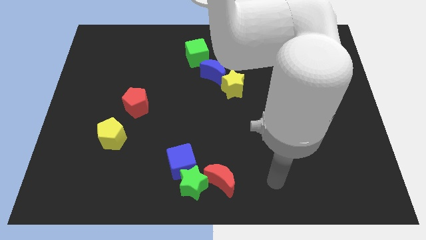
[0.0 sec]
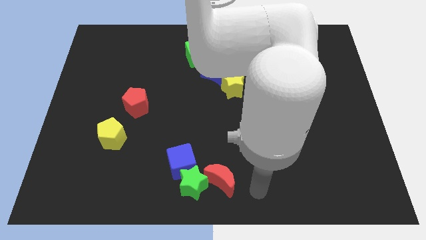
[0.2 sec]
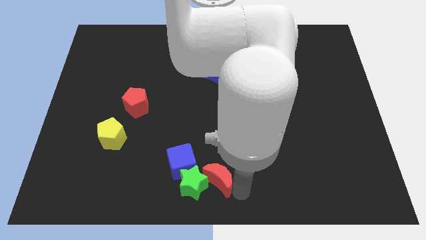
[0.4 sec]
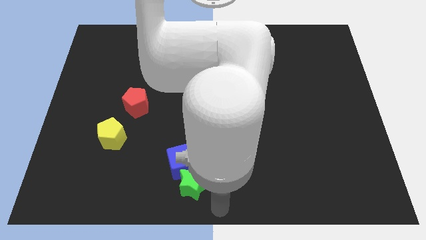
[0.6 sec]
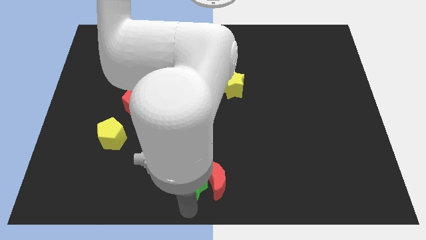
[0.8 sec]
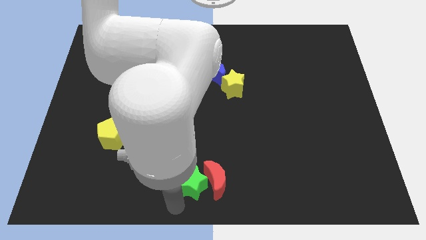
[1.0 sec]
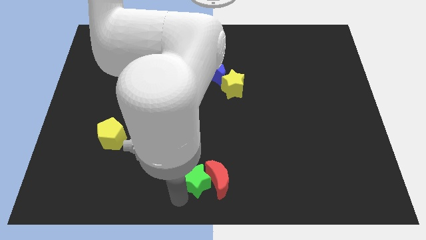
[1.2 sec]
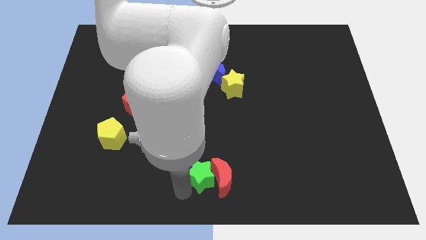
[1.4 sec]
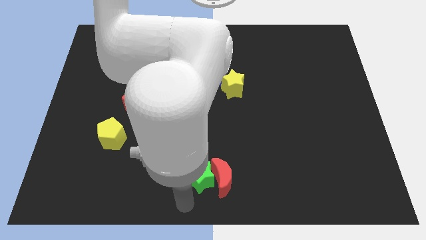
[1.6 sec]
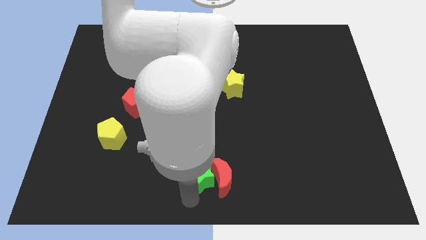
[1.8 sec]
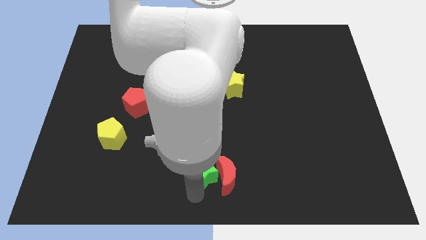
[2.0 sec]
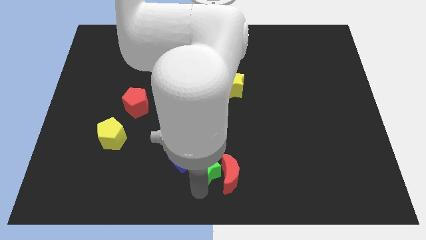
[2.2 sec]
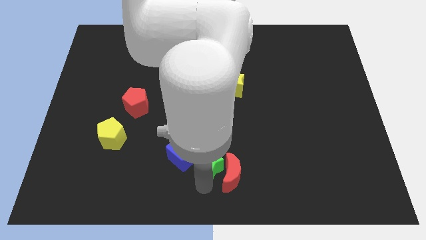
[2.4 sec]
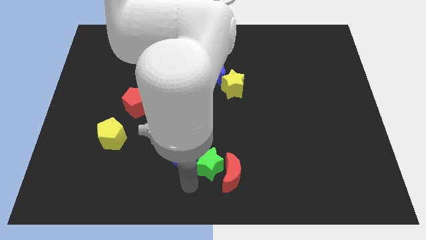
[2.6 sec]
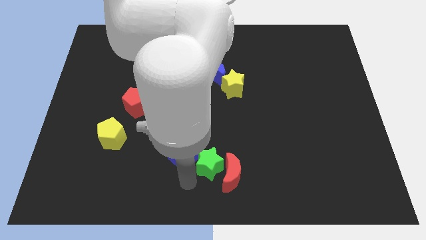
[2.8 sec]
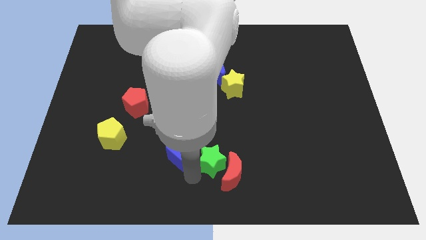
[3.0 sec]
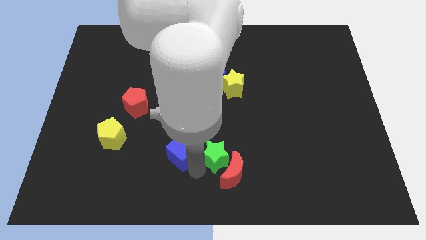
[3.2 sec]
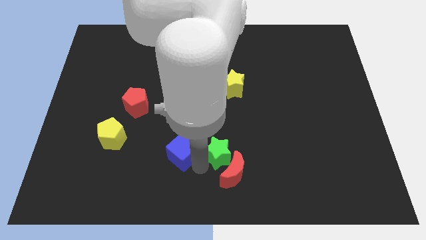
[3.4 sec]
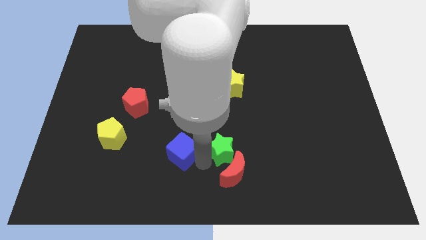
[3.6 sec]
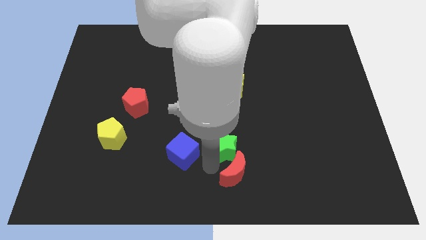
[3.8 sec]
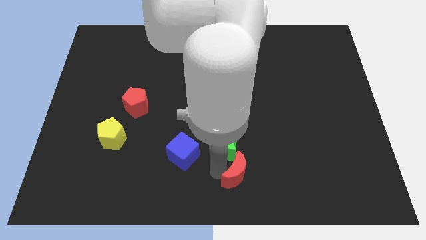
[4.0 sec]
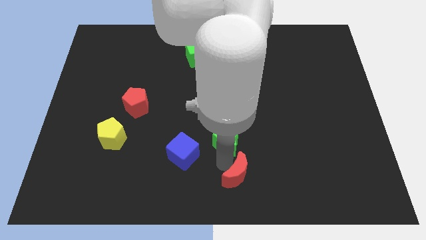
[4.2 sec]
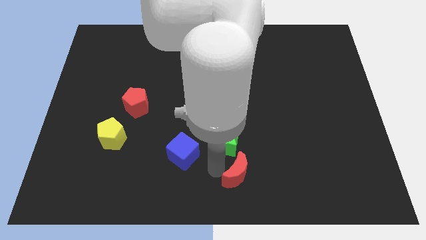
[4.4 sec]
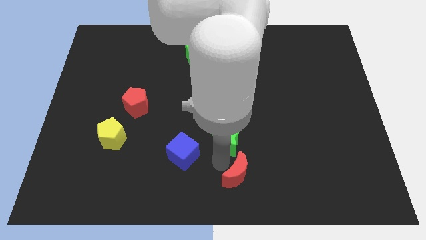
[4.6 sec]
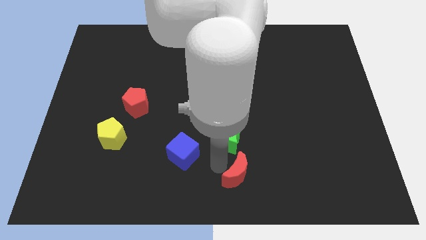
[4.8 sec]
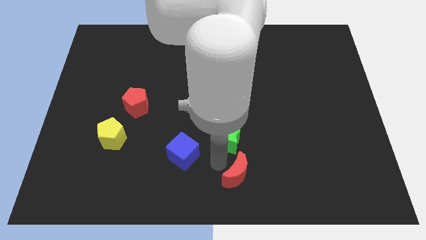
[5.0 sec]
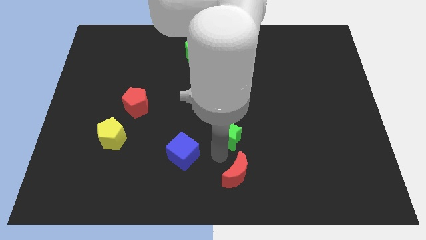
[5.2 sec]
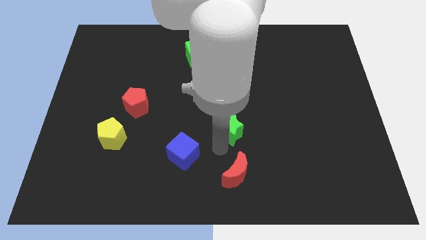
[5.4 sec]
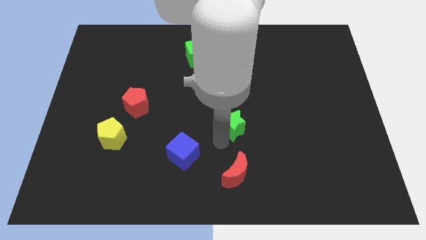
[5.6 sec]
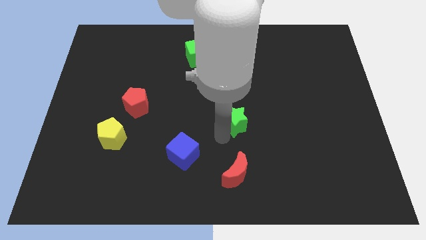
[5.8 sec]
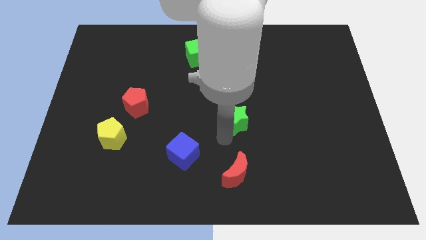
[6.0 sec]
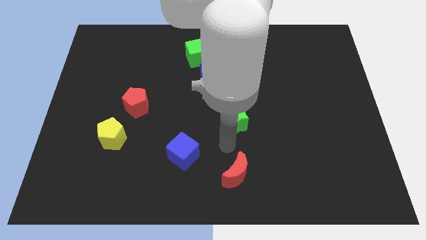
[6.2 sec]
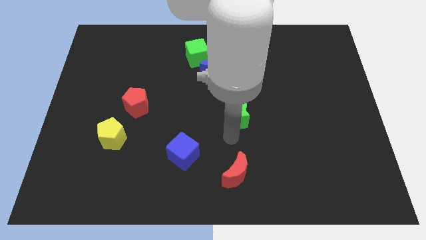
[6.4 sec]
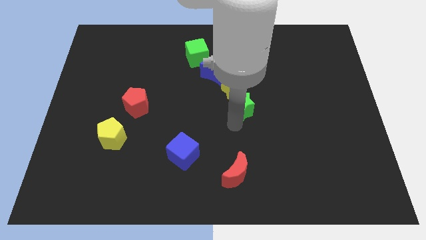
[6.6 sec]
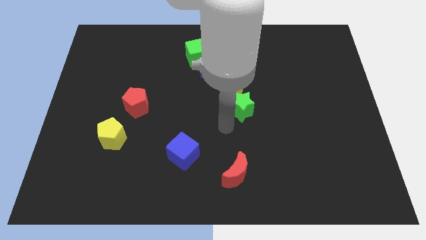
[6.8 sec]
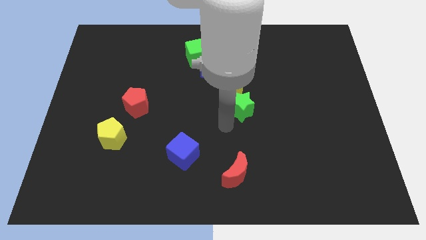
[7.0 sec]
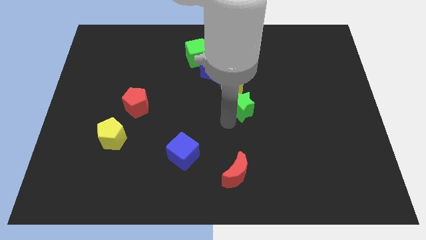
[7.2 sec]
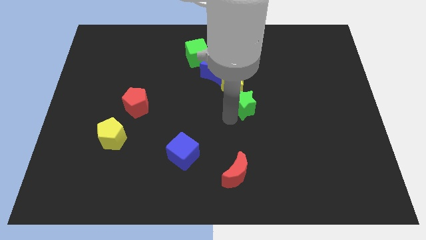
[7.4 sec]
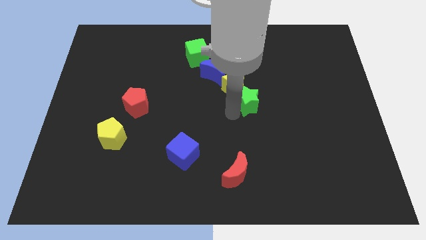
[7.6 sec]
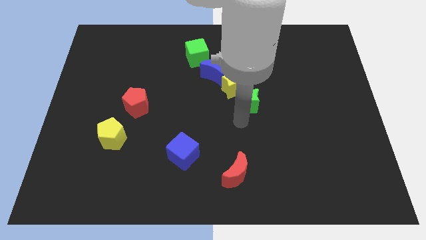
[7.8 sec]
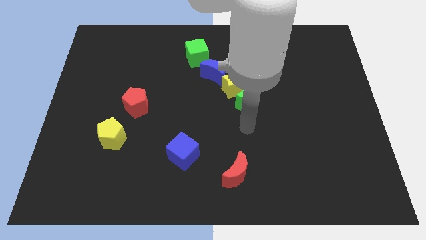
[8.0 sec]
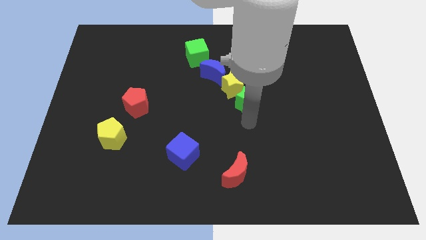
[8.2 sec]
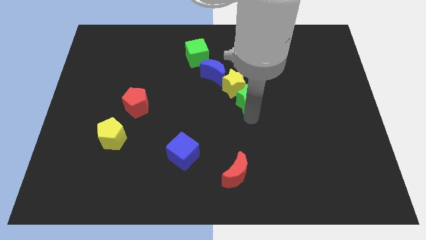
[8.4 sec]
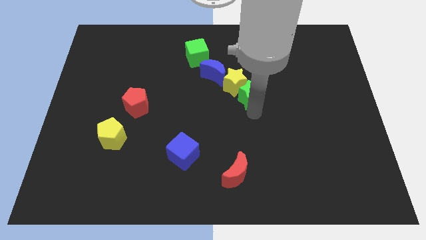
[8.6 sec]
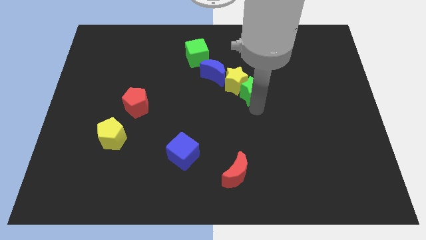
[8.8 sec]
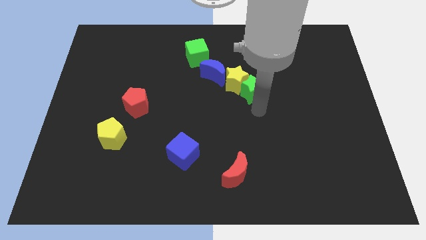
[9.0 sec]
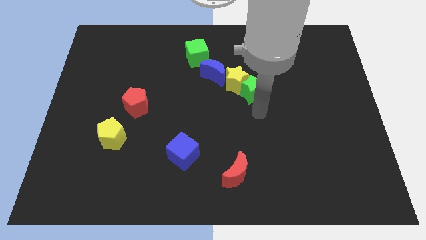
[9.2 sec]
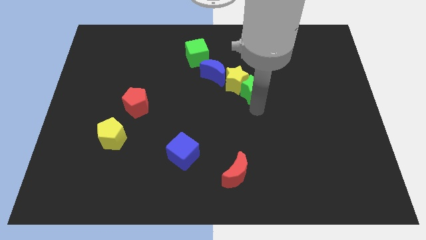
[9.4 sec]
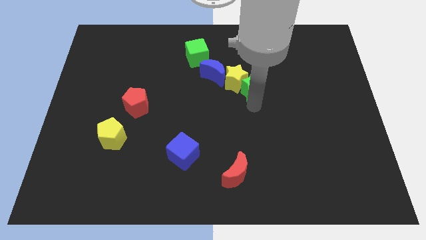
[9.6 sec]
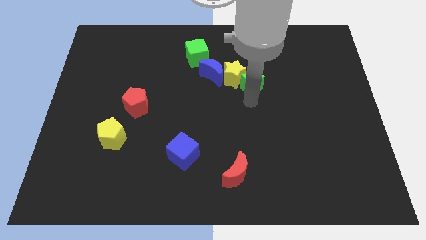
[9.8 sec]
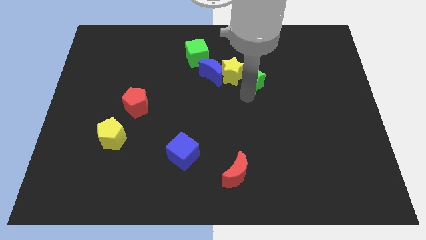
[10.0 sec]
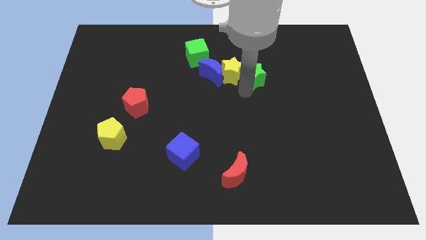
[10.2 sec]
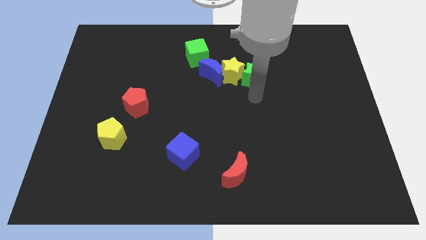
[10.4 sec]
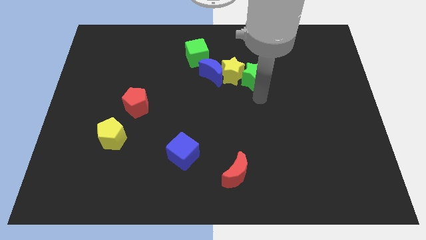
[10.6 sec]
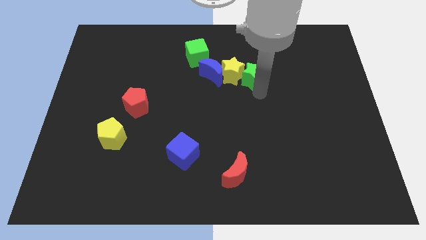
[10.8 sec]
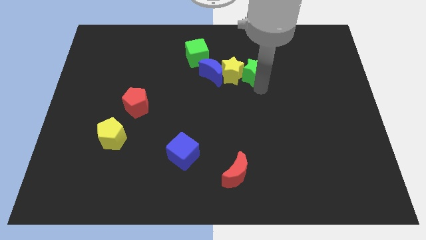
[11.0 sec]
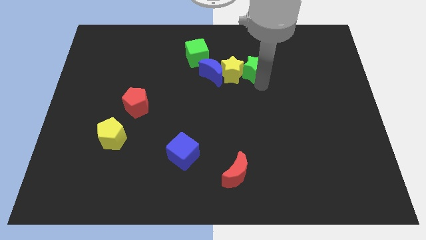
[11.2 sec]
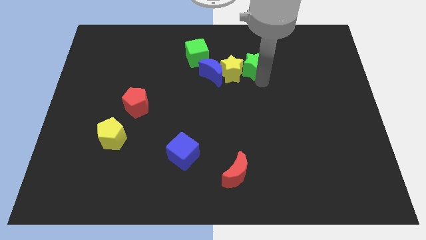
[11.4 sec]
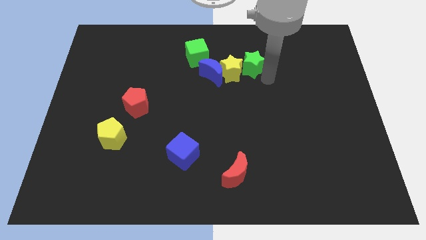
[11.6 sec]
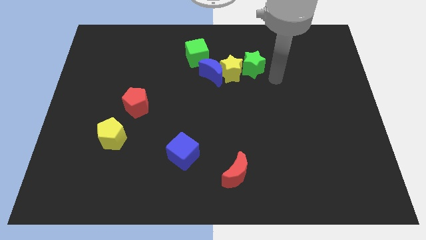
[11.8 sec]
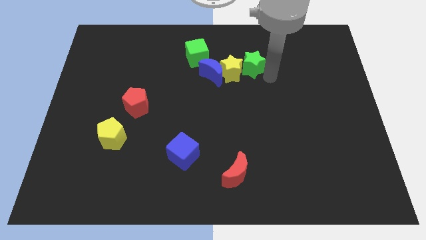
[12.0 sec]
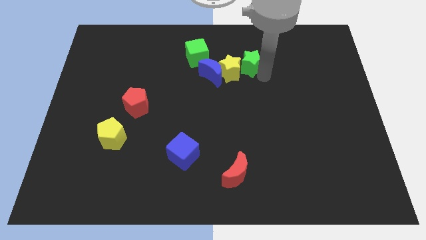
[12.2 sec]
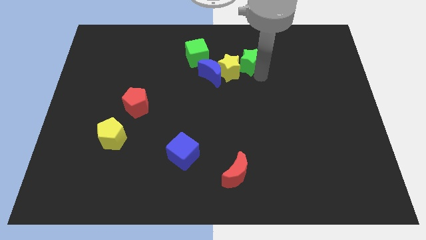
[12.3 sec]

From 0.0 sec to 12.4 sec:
push the green star to the top right of the blue moon

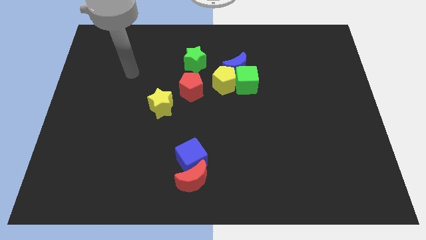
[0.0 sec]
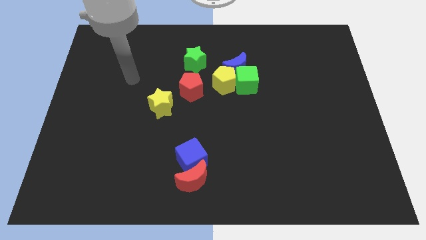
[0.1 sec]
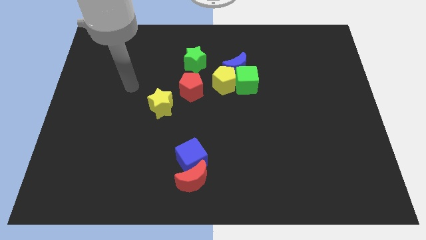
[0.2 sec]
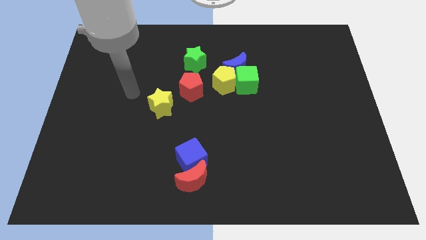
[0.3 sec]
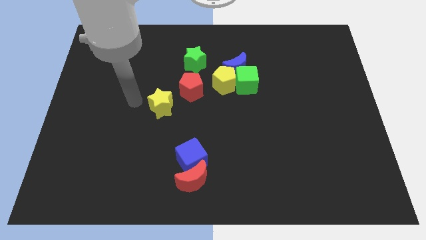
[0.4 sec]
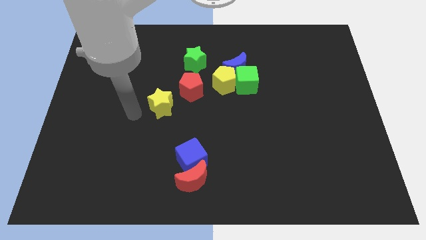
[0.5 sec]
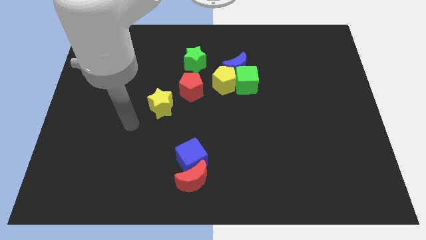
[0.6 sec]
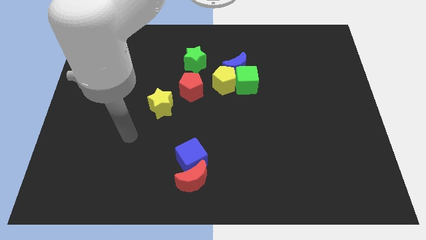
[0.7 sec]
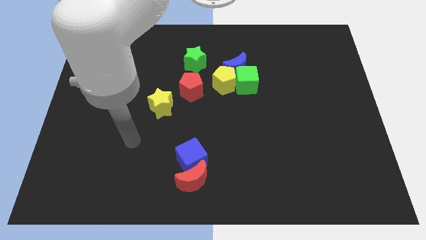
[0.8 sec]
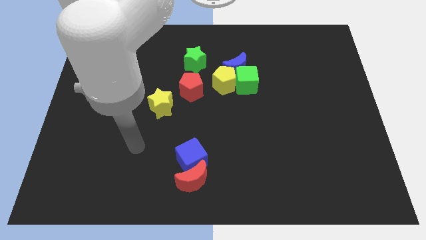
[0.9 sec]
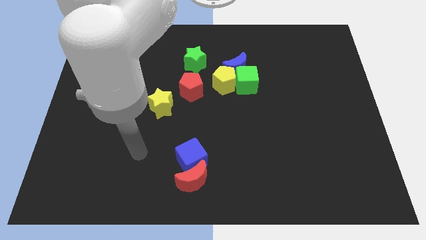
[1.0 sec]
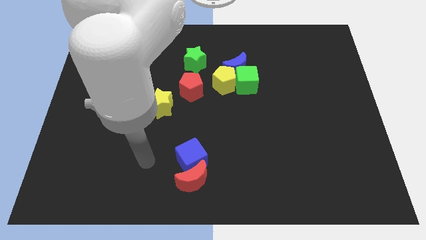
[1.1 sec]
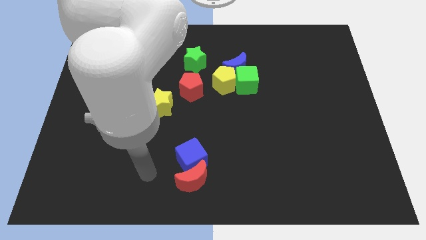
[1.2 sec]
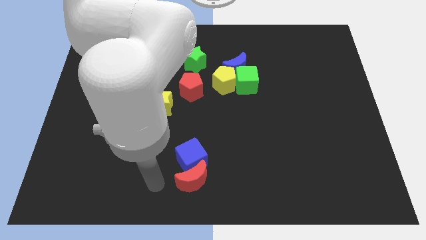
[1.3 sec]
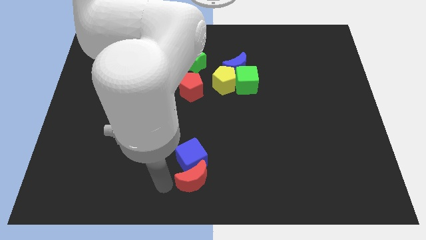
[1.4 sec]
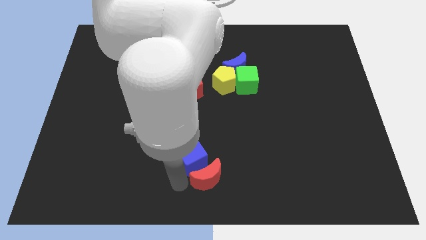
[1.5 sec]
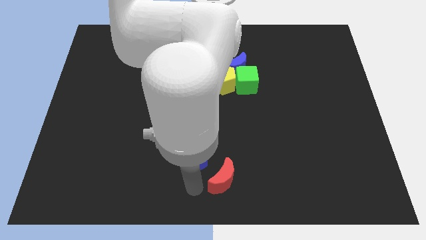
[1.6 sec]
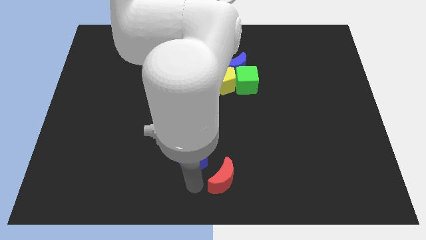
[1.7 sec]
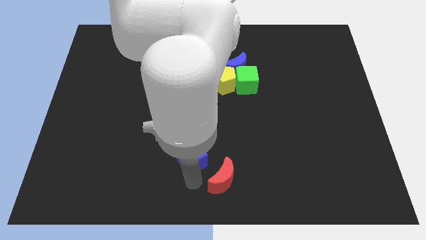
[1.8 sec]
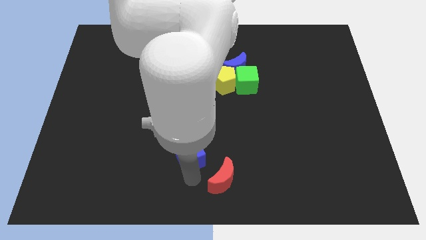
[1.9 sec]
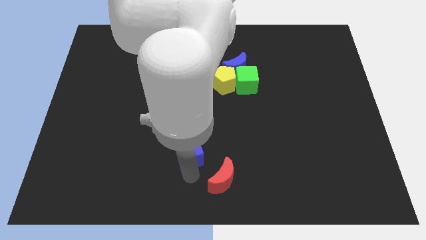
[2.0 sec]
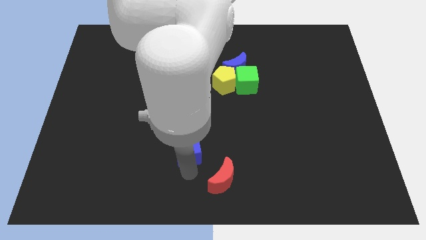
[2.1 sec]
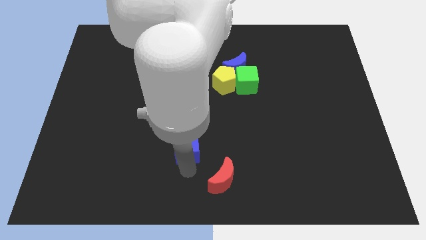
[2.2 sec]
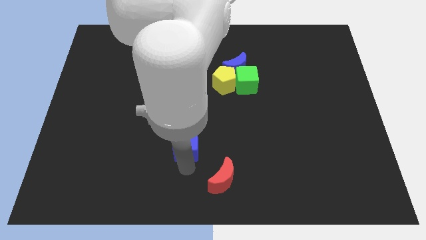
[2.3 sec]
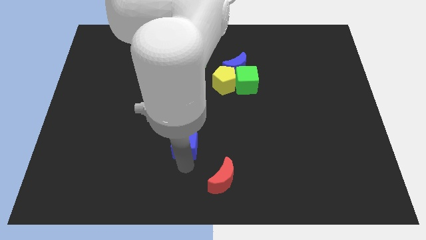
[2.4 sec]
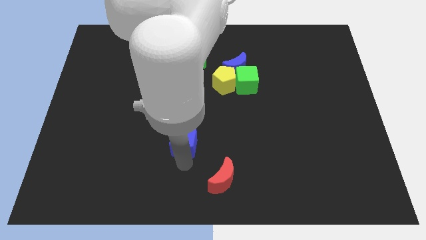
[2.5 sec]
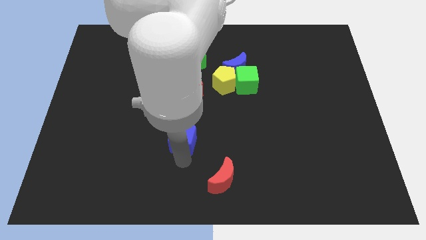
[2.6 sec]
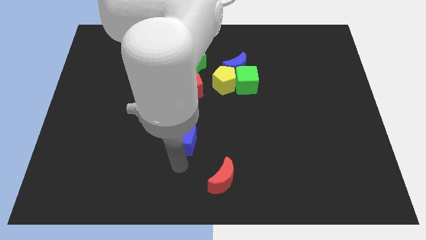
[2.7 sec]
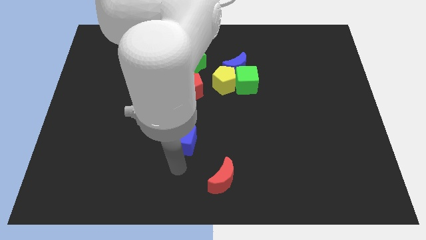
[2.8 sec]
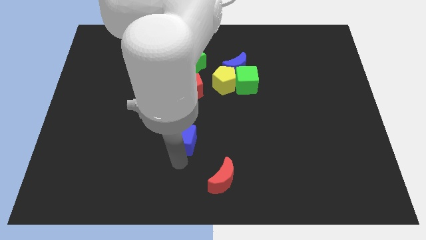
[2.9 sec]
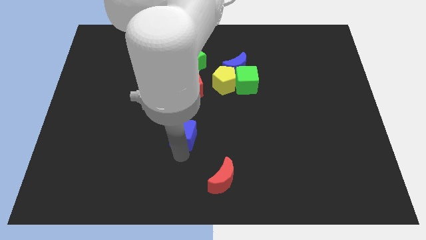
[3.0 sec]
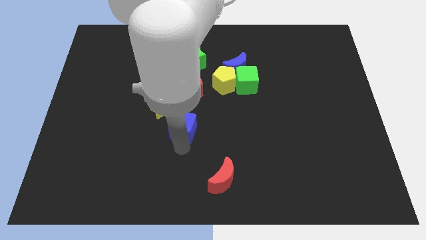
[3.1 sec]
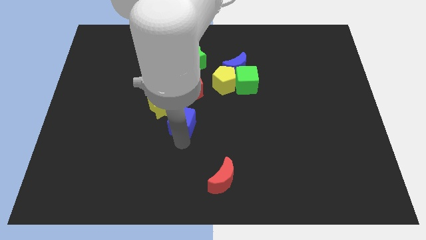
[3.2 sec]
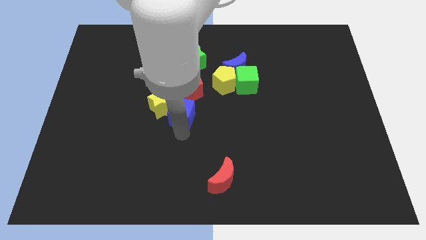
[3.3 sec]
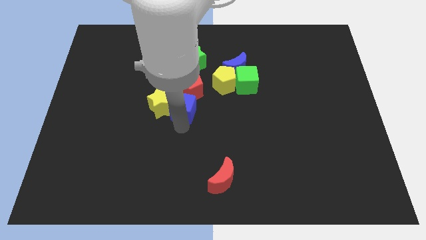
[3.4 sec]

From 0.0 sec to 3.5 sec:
move the blue cube to the bottom of the green star
